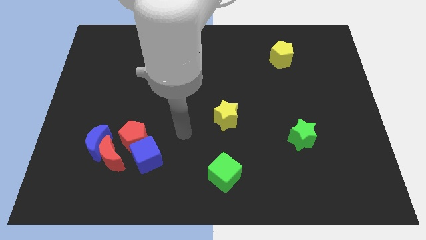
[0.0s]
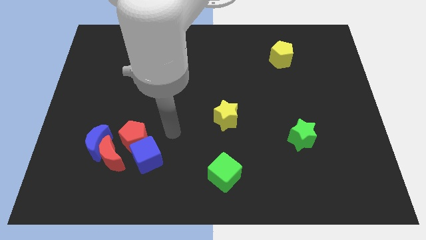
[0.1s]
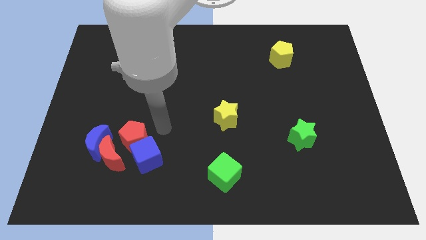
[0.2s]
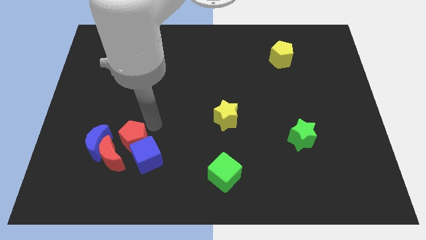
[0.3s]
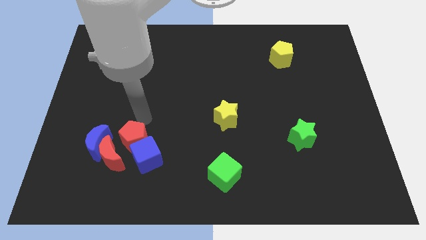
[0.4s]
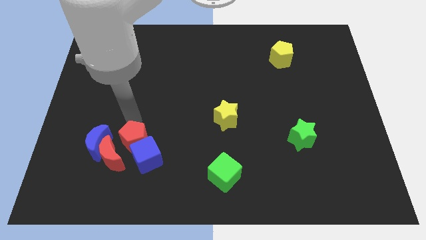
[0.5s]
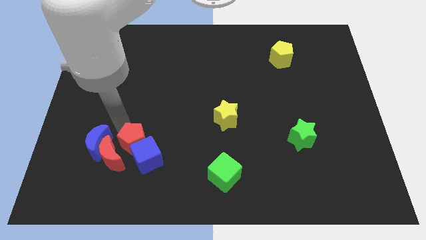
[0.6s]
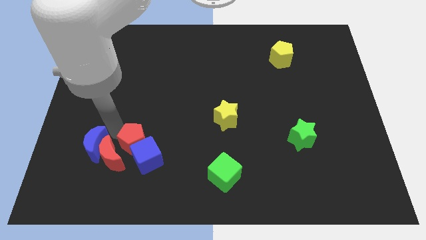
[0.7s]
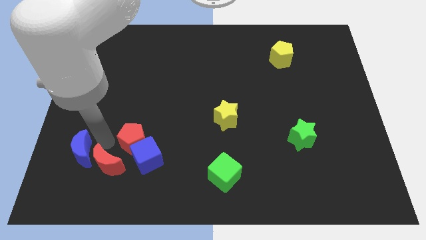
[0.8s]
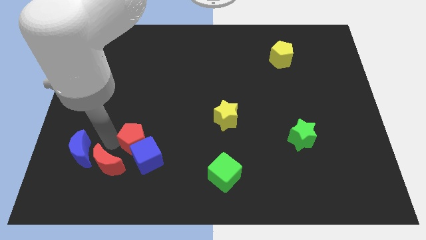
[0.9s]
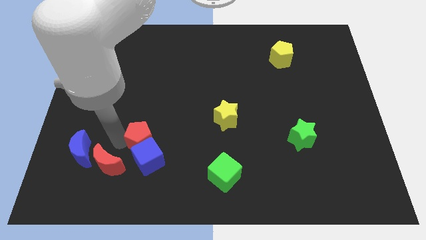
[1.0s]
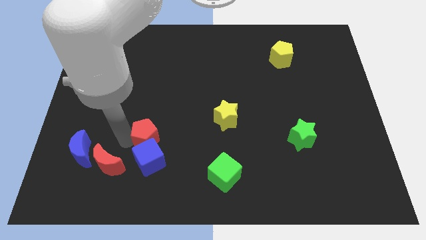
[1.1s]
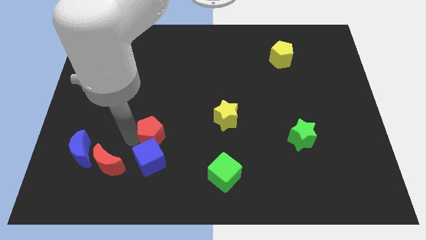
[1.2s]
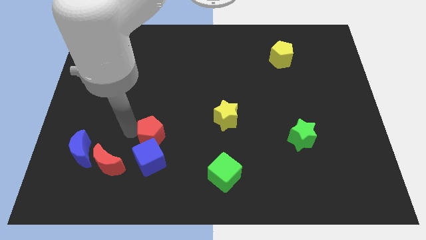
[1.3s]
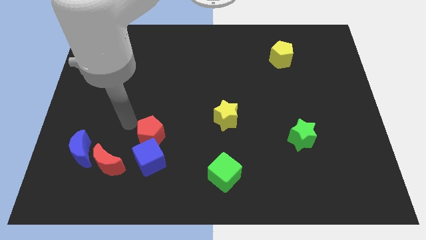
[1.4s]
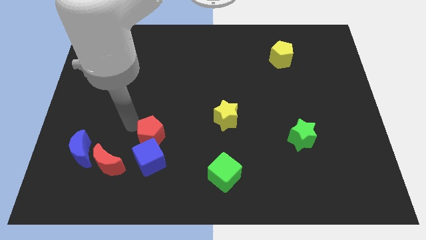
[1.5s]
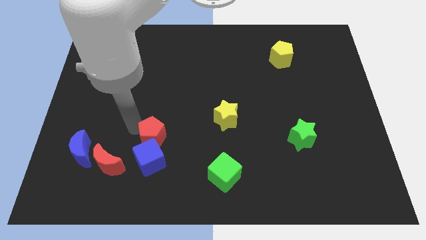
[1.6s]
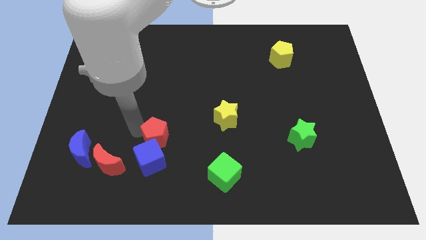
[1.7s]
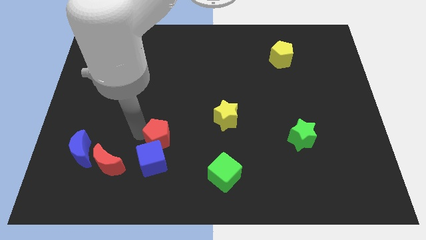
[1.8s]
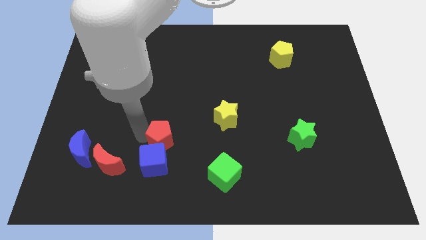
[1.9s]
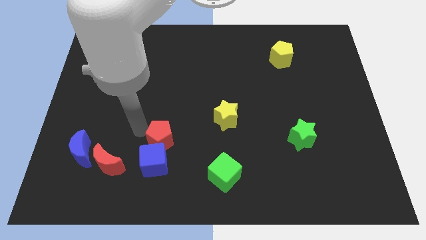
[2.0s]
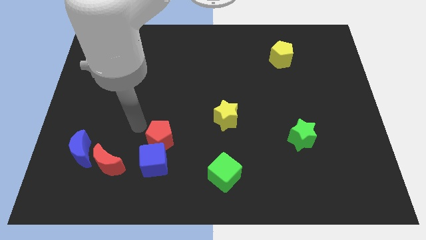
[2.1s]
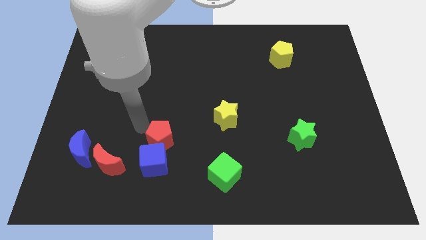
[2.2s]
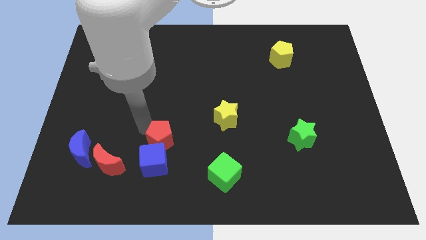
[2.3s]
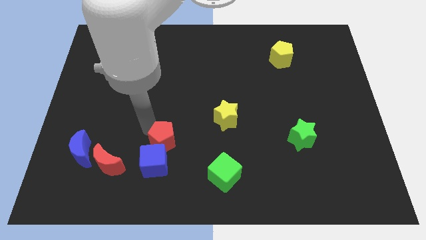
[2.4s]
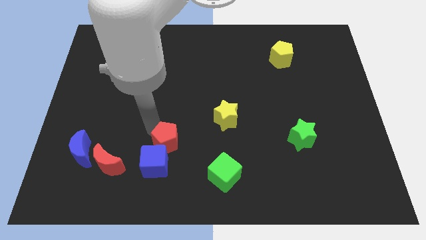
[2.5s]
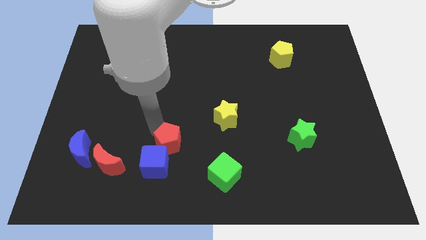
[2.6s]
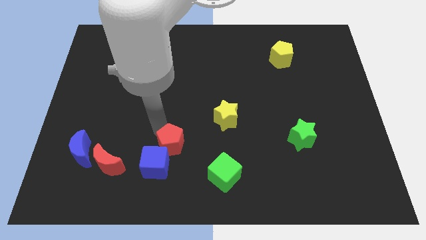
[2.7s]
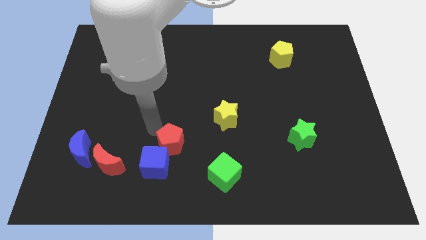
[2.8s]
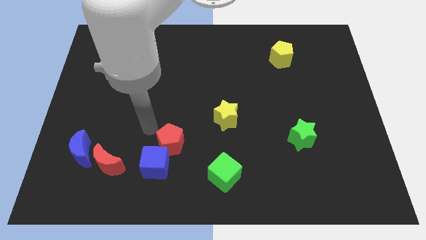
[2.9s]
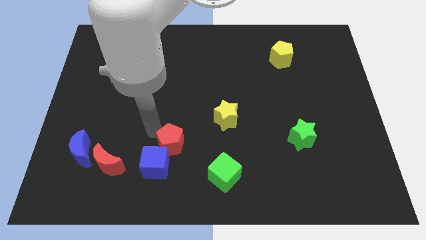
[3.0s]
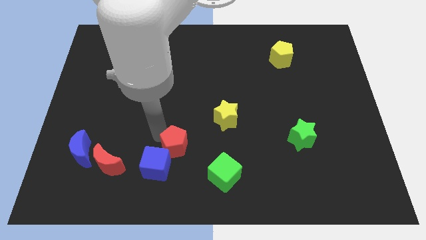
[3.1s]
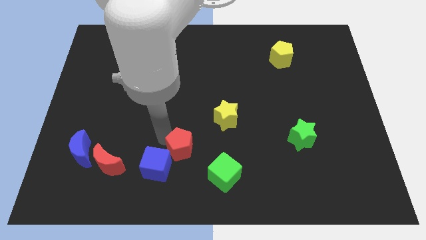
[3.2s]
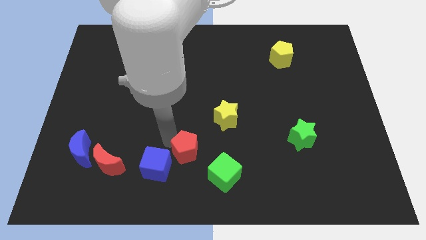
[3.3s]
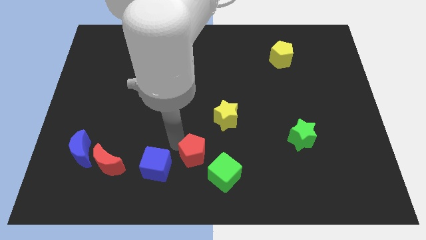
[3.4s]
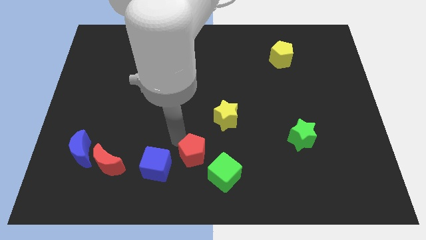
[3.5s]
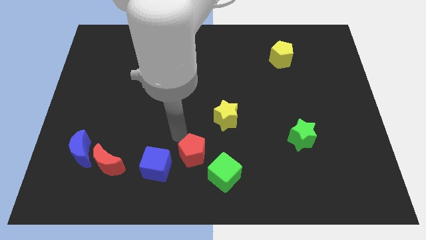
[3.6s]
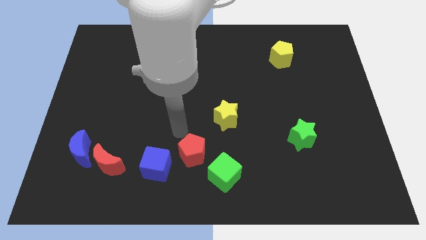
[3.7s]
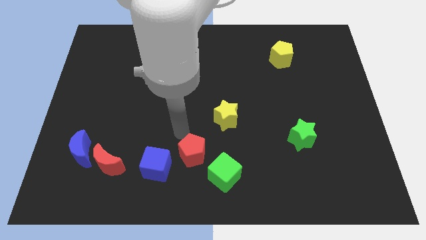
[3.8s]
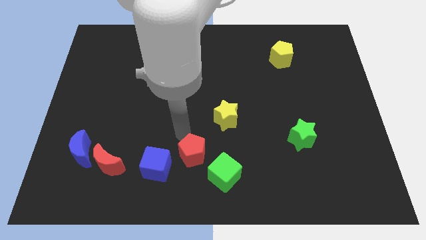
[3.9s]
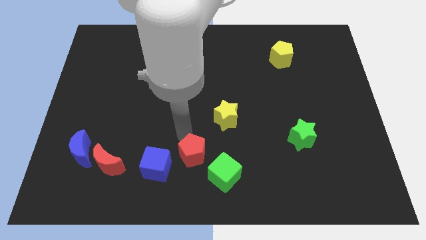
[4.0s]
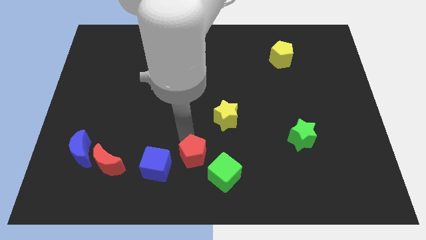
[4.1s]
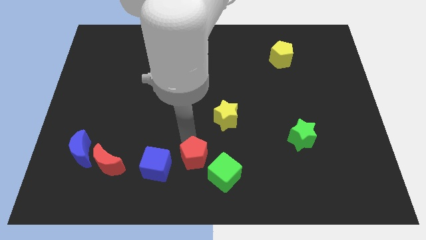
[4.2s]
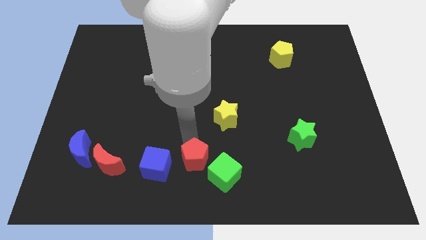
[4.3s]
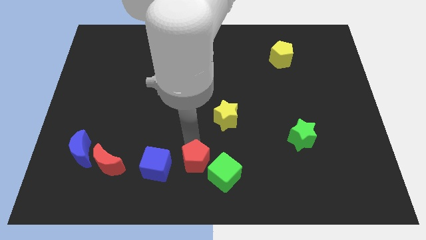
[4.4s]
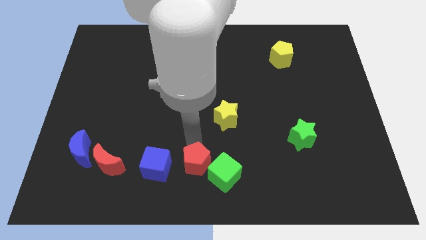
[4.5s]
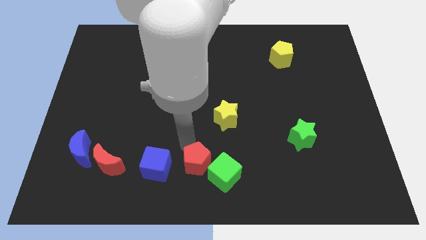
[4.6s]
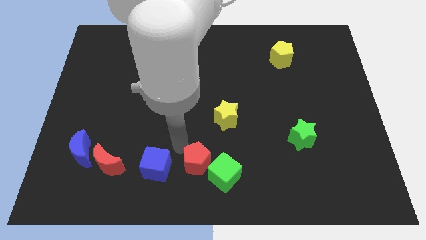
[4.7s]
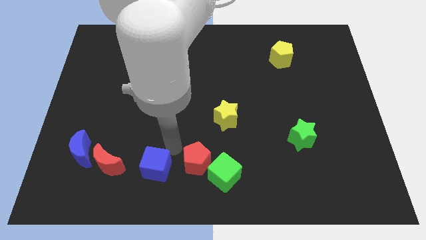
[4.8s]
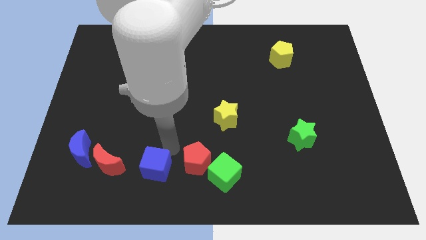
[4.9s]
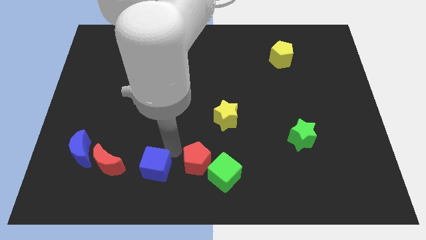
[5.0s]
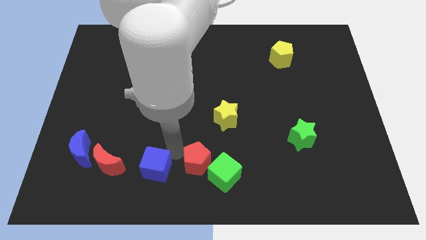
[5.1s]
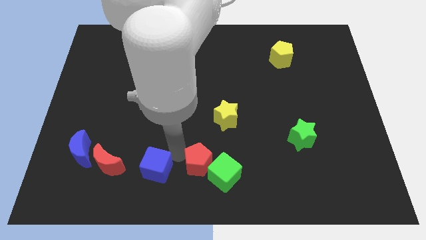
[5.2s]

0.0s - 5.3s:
move the red pentagon next to the green cube

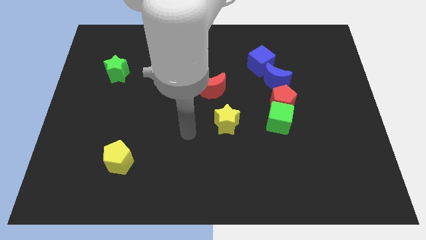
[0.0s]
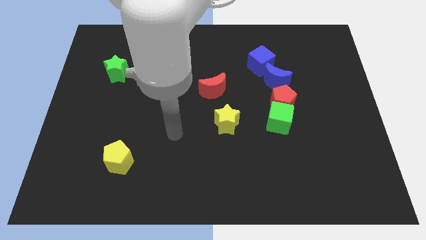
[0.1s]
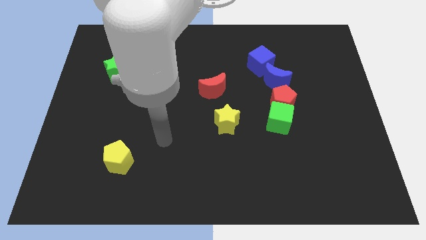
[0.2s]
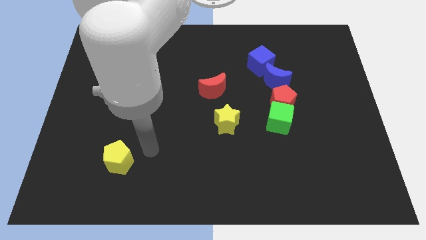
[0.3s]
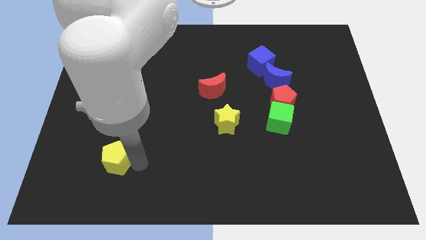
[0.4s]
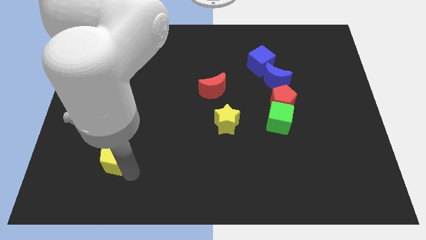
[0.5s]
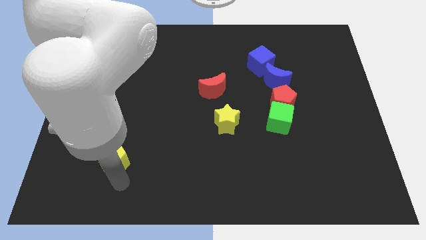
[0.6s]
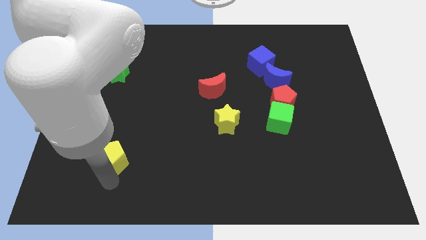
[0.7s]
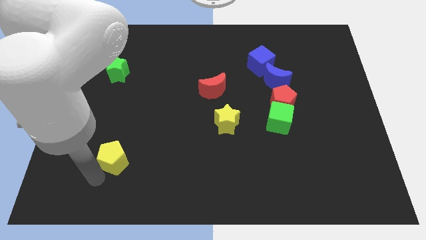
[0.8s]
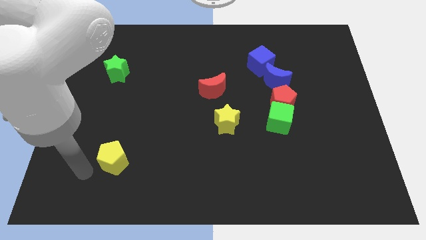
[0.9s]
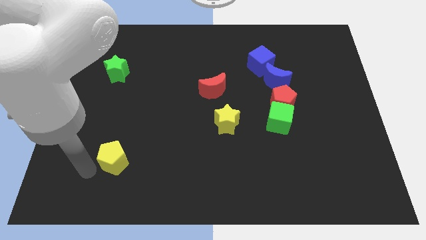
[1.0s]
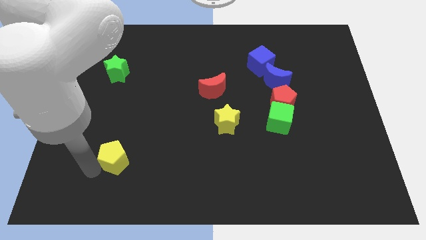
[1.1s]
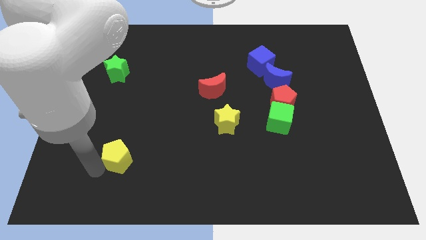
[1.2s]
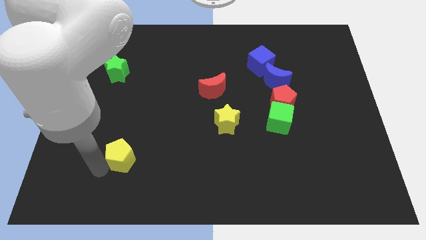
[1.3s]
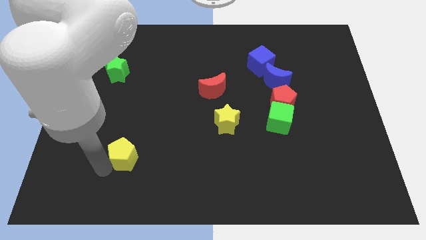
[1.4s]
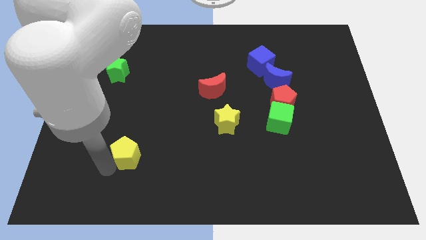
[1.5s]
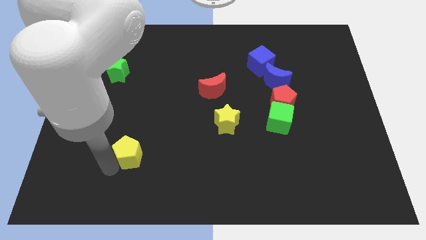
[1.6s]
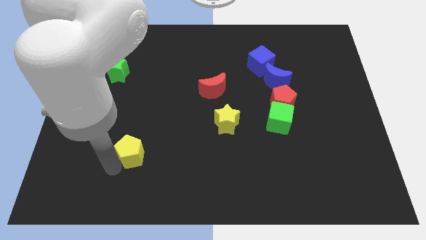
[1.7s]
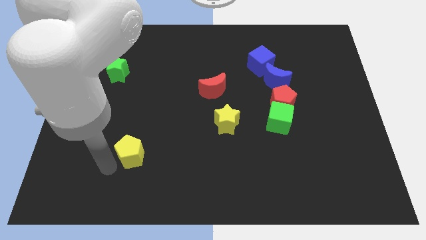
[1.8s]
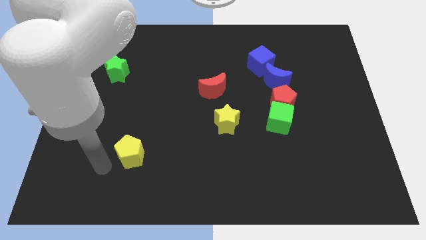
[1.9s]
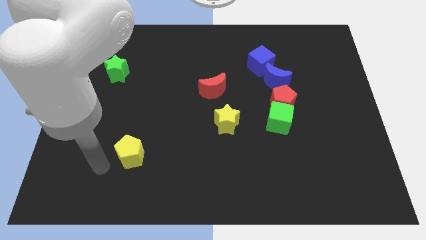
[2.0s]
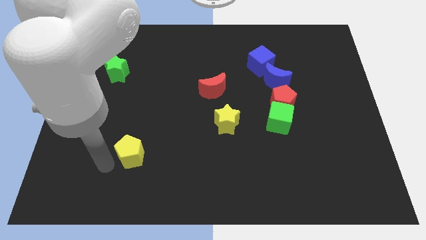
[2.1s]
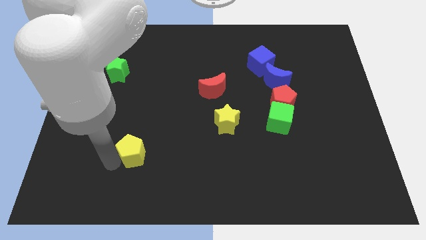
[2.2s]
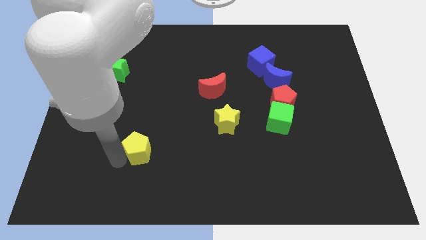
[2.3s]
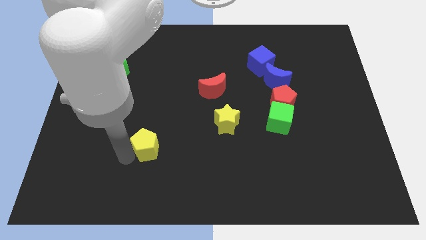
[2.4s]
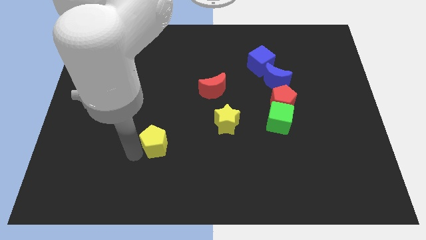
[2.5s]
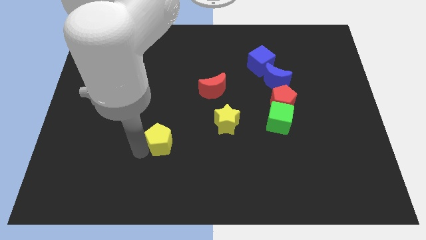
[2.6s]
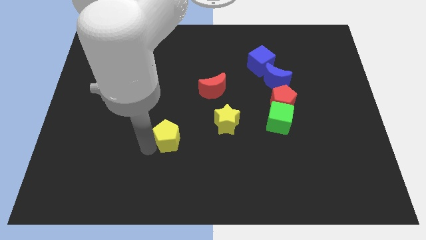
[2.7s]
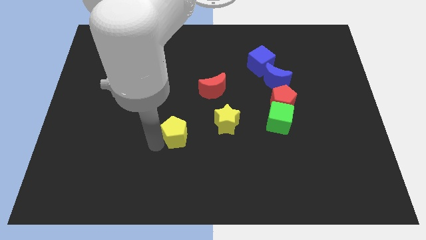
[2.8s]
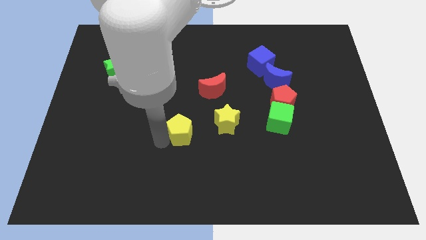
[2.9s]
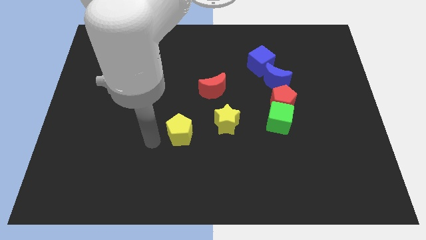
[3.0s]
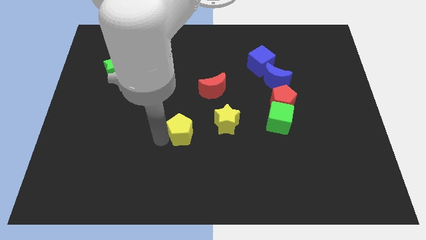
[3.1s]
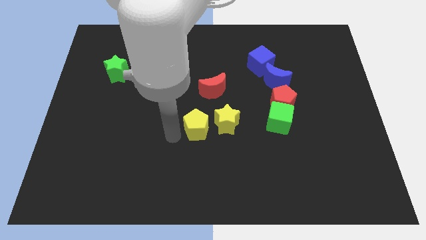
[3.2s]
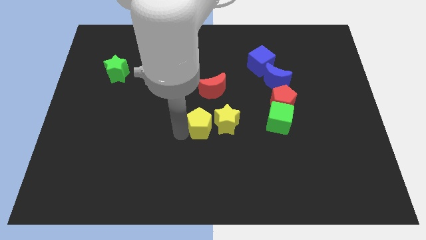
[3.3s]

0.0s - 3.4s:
move the yellow pentagon towards the yellow star
